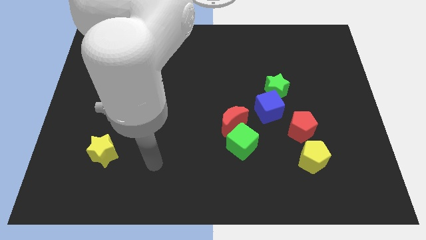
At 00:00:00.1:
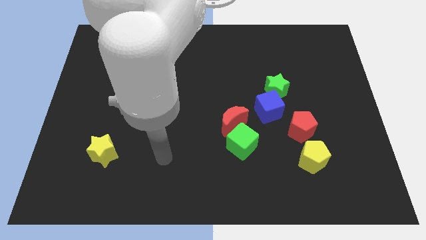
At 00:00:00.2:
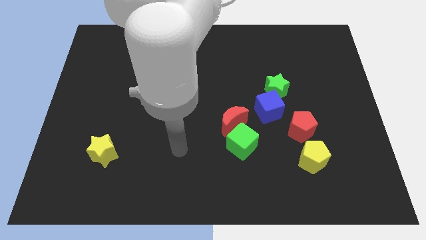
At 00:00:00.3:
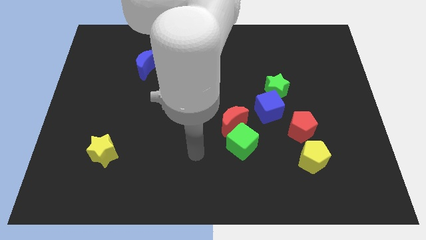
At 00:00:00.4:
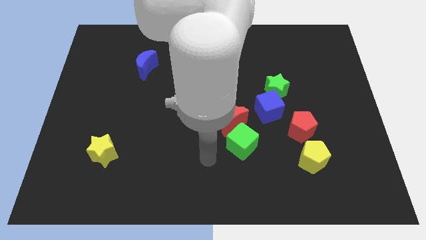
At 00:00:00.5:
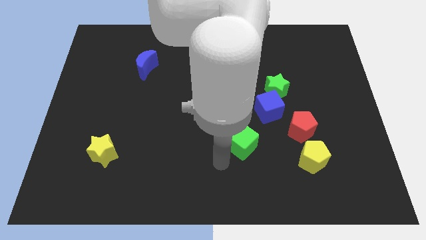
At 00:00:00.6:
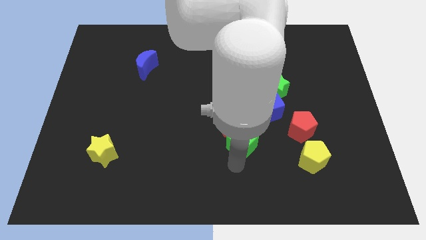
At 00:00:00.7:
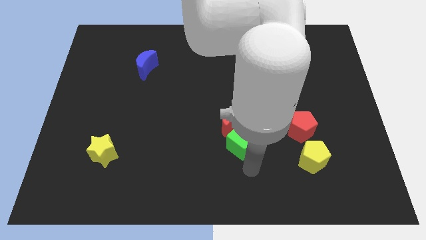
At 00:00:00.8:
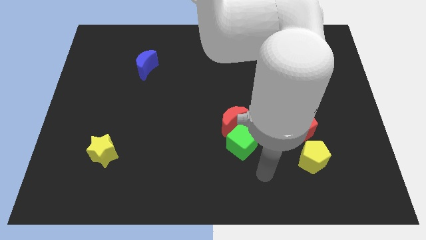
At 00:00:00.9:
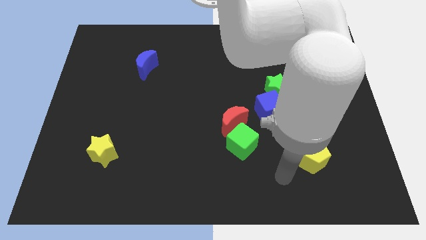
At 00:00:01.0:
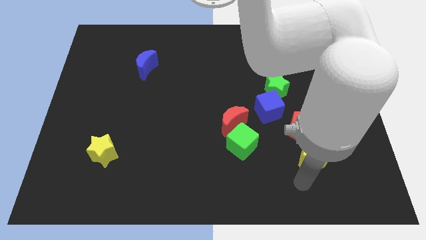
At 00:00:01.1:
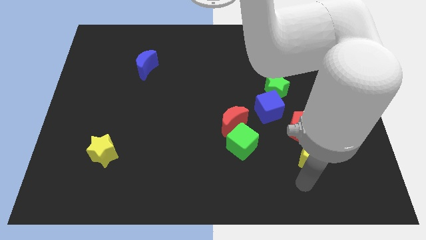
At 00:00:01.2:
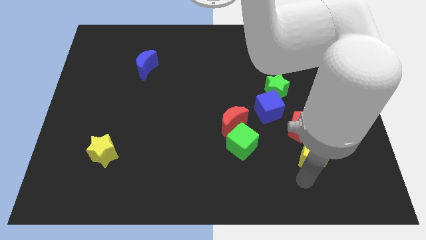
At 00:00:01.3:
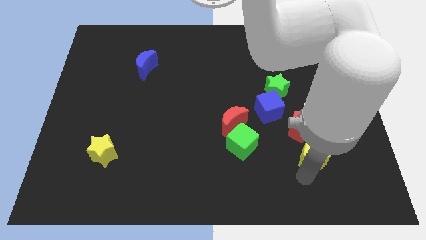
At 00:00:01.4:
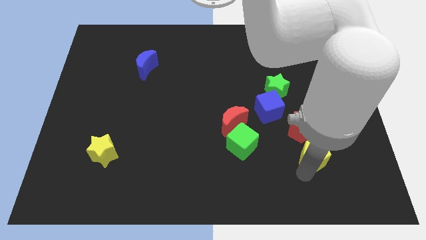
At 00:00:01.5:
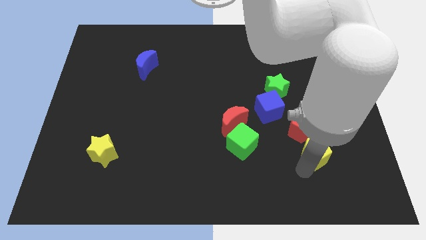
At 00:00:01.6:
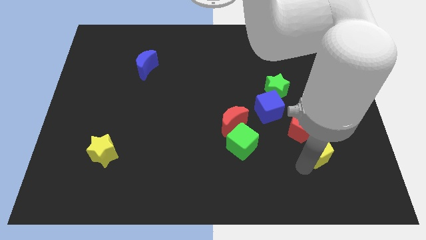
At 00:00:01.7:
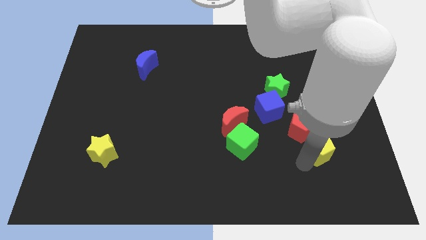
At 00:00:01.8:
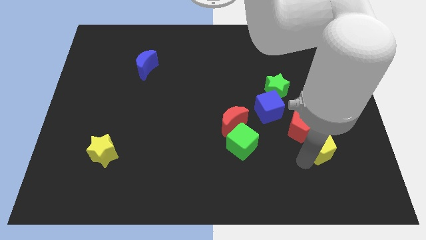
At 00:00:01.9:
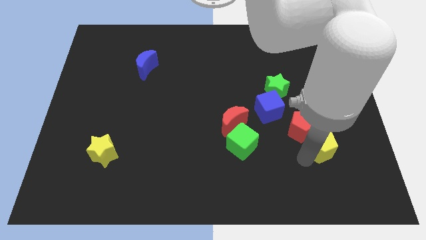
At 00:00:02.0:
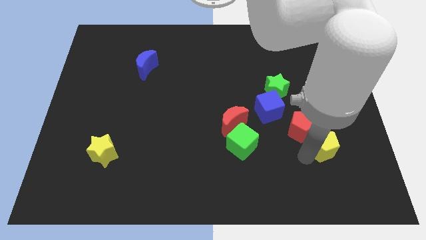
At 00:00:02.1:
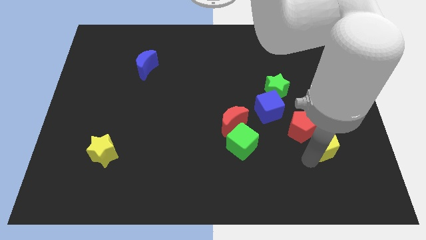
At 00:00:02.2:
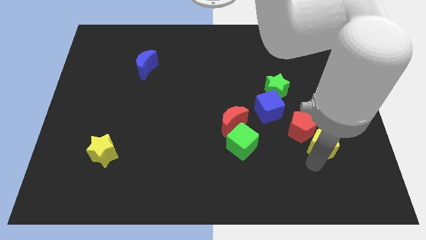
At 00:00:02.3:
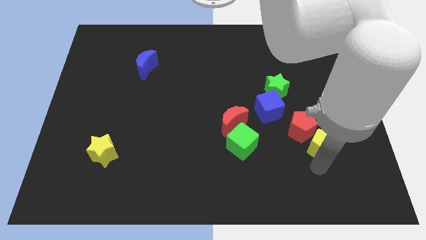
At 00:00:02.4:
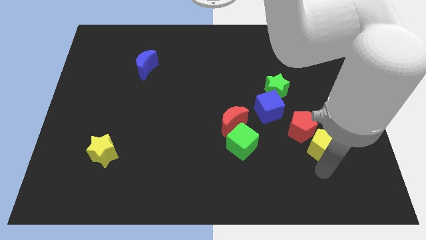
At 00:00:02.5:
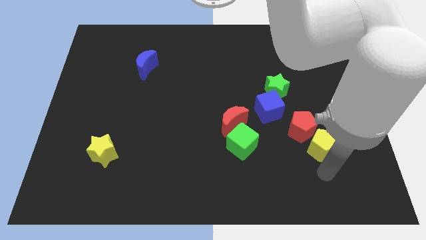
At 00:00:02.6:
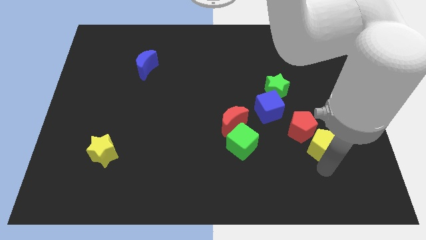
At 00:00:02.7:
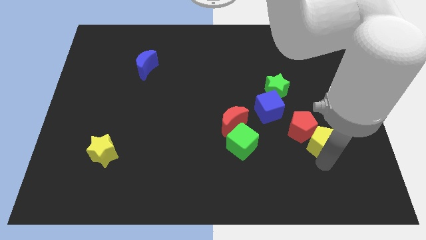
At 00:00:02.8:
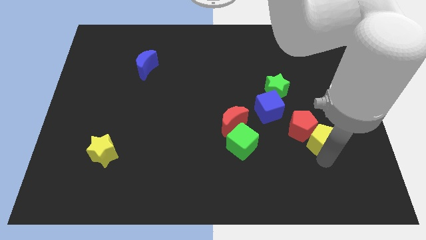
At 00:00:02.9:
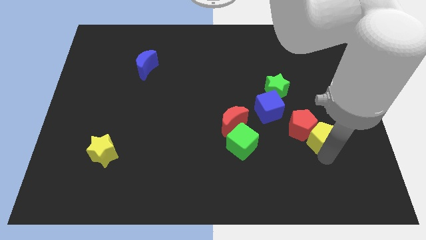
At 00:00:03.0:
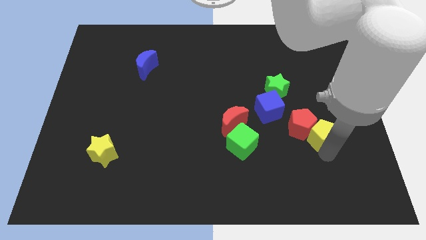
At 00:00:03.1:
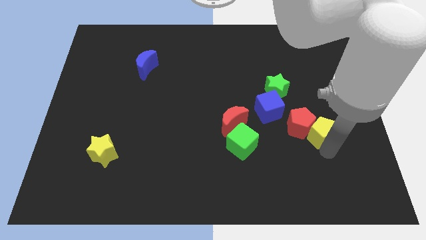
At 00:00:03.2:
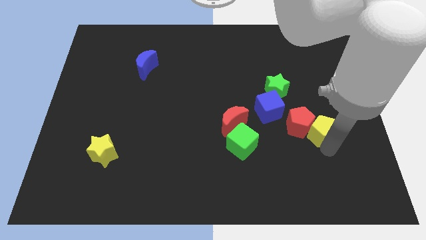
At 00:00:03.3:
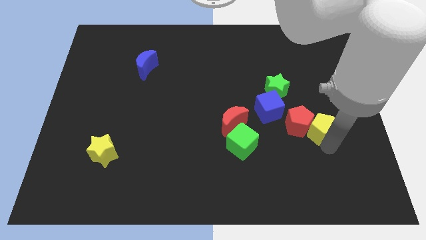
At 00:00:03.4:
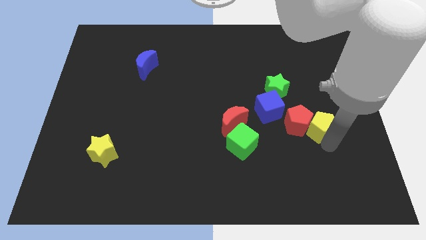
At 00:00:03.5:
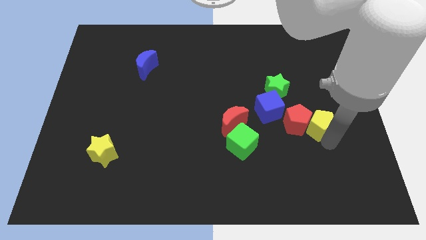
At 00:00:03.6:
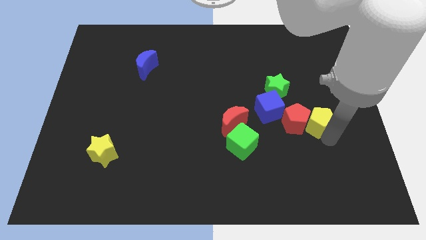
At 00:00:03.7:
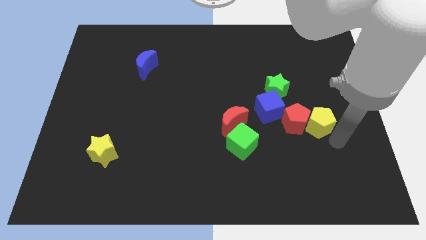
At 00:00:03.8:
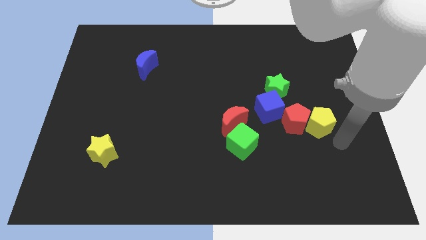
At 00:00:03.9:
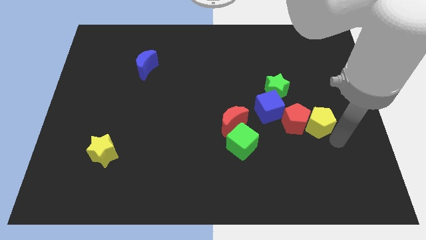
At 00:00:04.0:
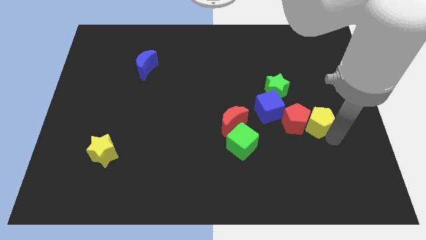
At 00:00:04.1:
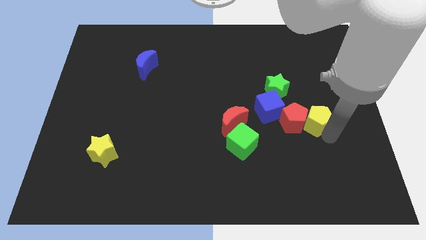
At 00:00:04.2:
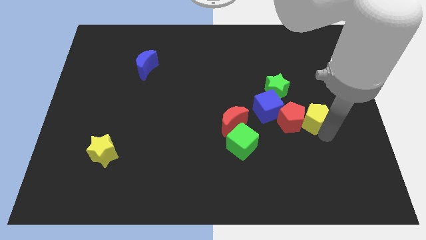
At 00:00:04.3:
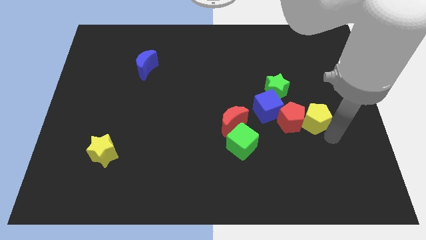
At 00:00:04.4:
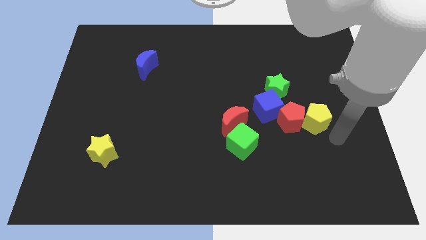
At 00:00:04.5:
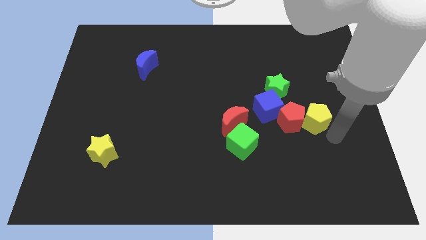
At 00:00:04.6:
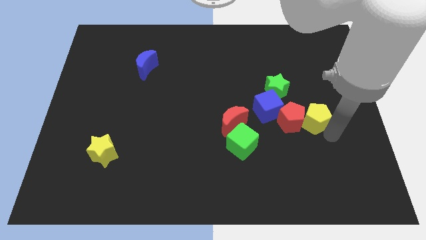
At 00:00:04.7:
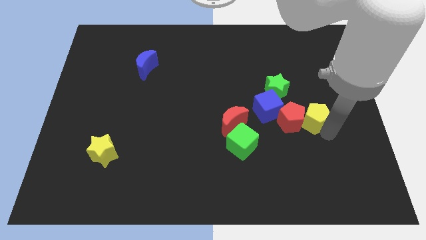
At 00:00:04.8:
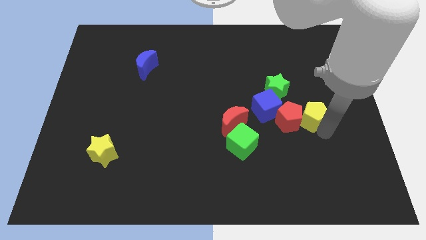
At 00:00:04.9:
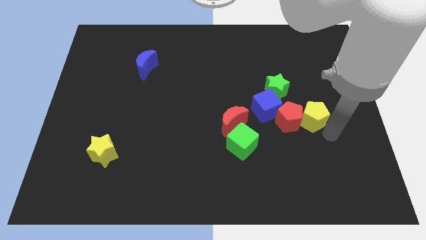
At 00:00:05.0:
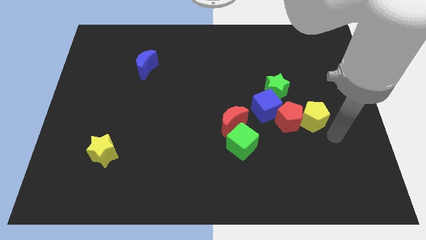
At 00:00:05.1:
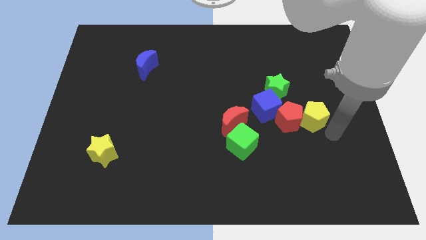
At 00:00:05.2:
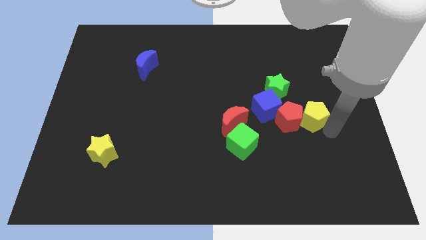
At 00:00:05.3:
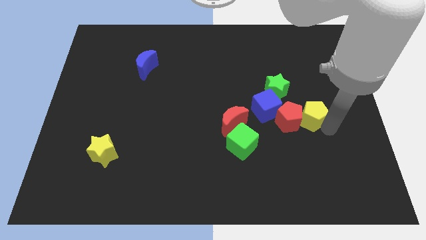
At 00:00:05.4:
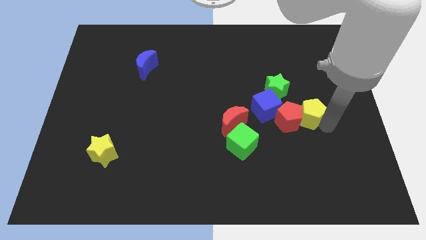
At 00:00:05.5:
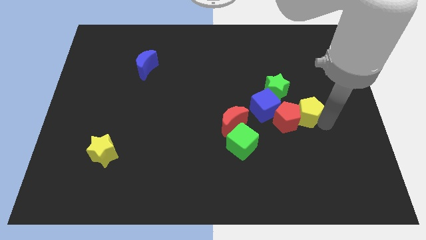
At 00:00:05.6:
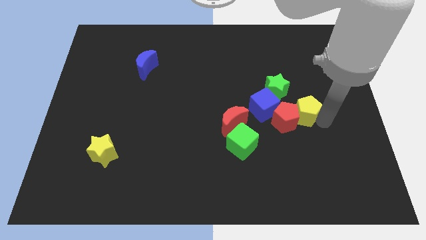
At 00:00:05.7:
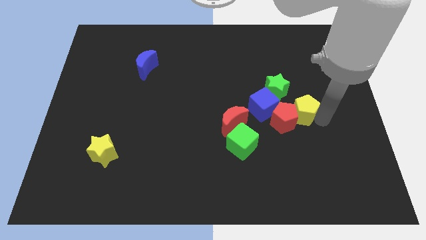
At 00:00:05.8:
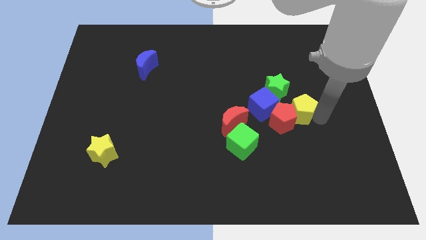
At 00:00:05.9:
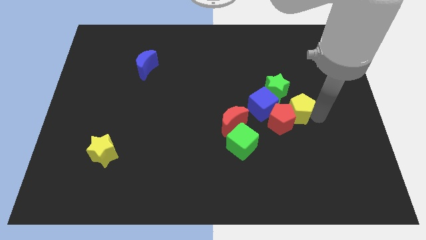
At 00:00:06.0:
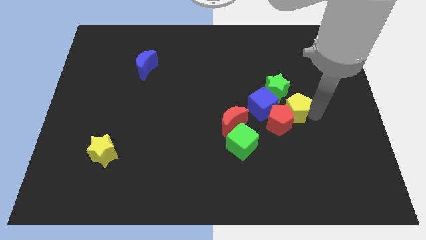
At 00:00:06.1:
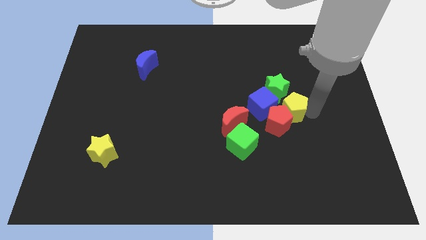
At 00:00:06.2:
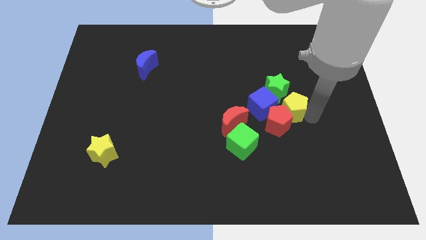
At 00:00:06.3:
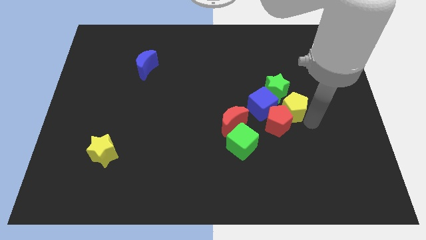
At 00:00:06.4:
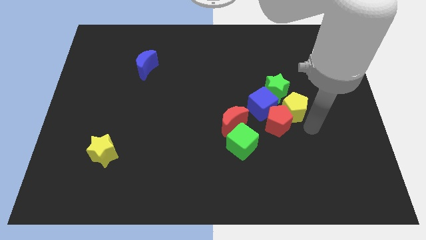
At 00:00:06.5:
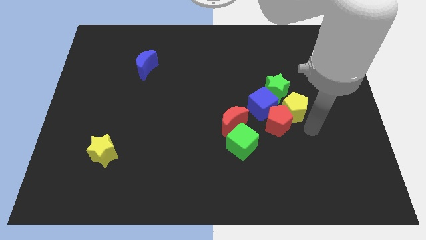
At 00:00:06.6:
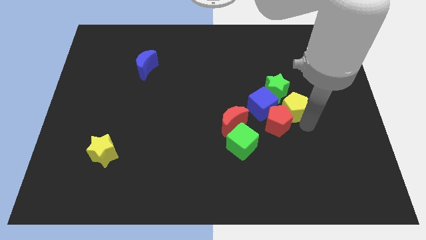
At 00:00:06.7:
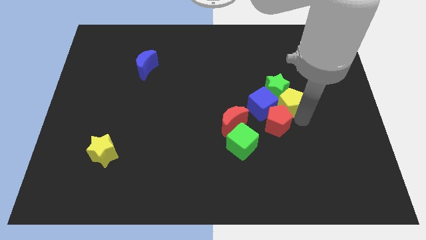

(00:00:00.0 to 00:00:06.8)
push the yellow pentagon to the green star
